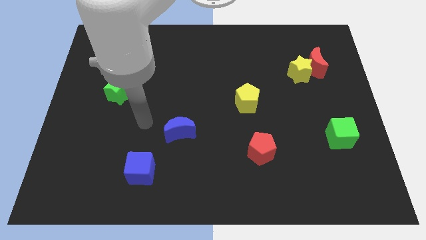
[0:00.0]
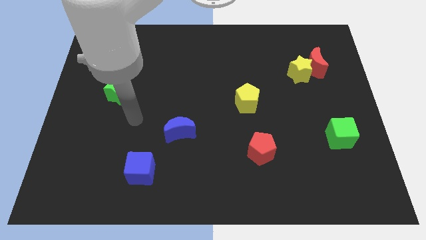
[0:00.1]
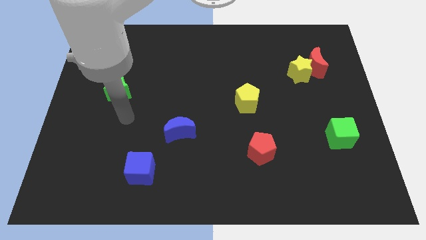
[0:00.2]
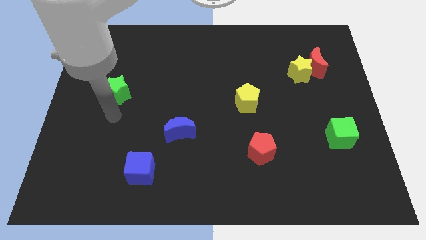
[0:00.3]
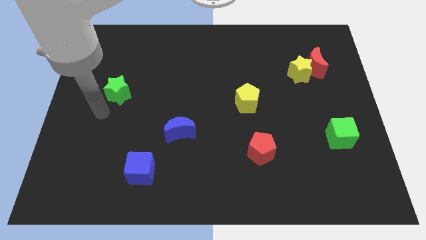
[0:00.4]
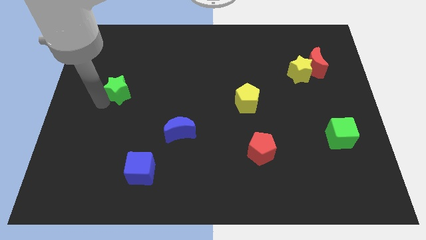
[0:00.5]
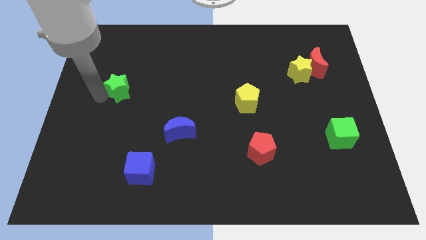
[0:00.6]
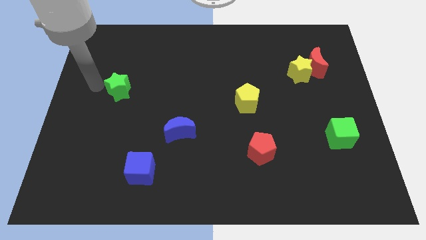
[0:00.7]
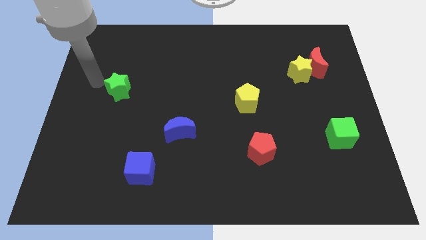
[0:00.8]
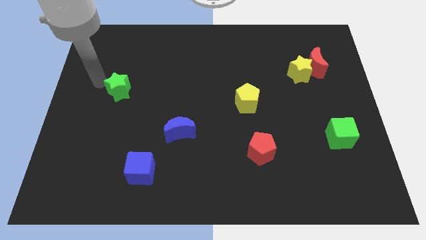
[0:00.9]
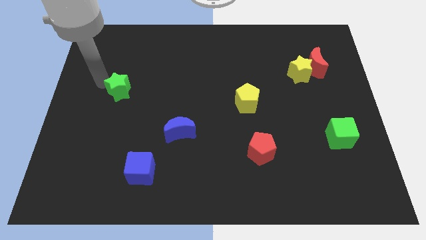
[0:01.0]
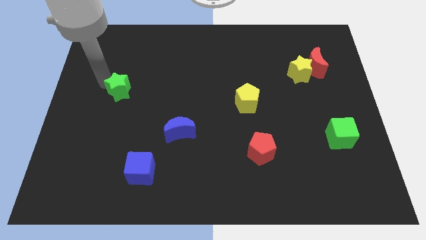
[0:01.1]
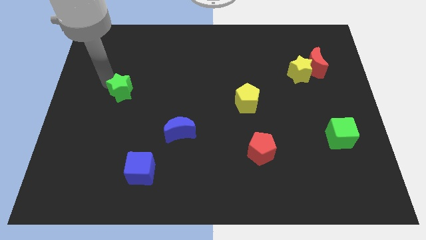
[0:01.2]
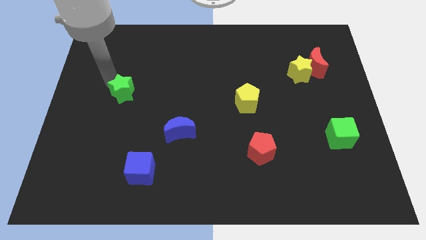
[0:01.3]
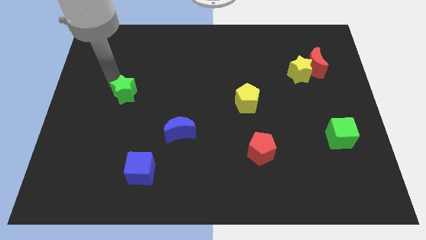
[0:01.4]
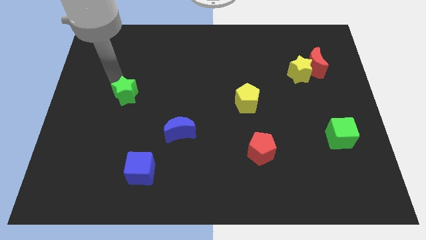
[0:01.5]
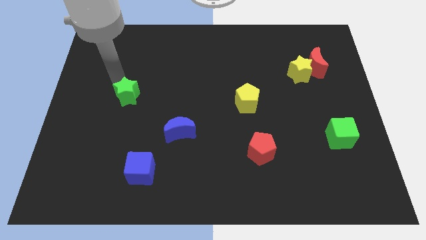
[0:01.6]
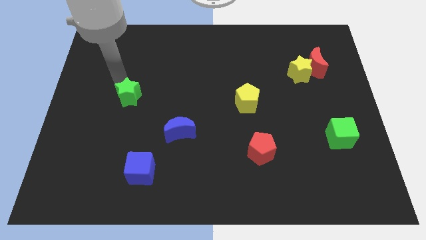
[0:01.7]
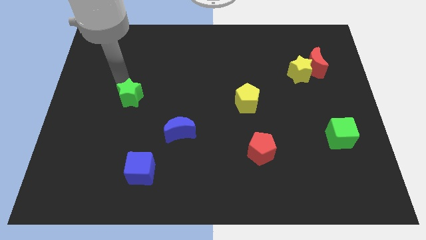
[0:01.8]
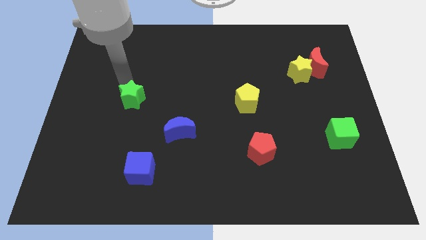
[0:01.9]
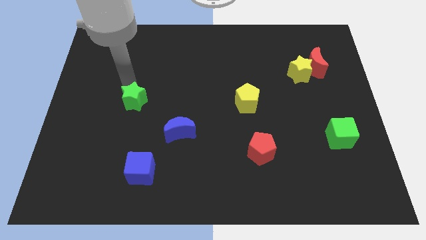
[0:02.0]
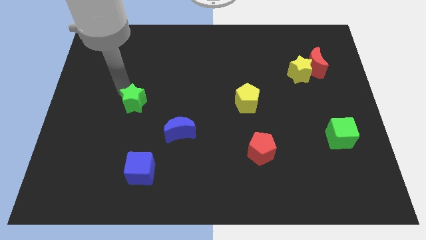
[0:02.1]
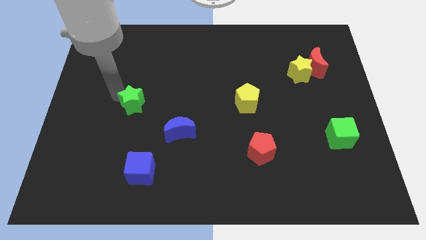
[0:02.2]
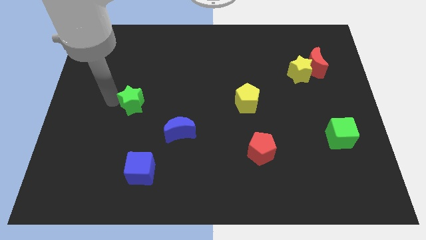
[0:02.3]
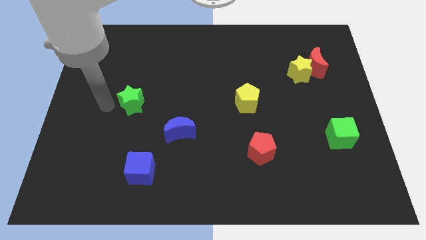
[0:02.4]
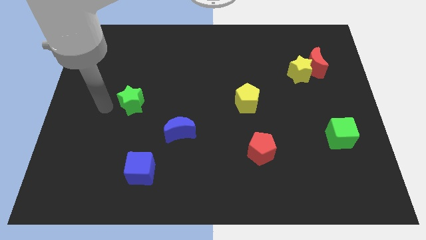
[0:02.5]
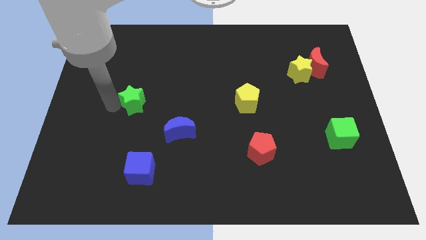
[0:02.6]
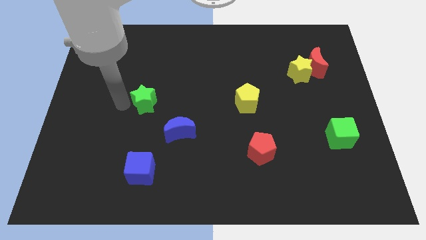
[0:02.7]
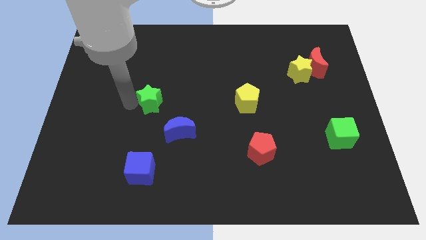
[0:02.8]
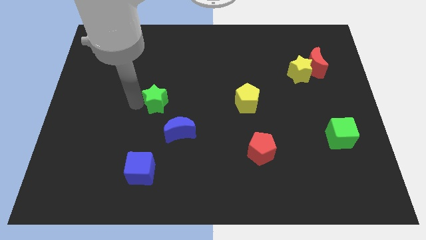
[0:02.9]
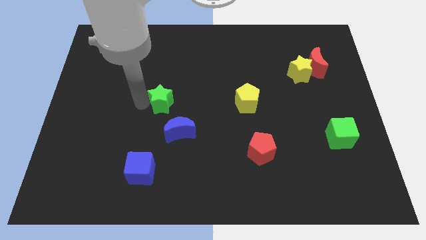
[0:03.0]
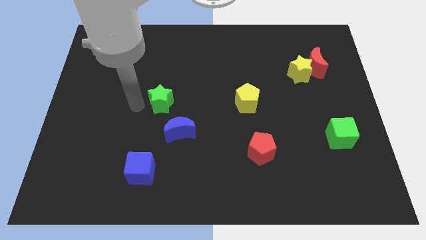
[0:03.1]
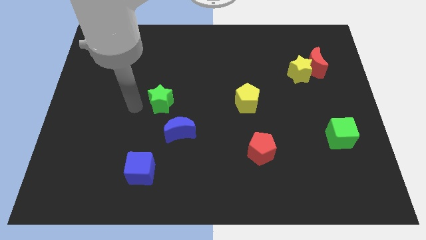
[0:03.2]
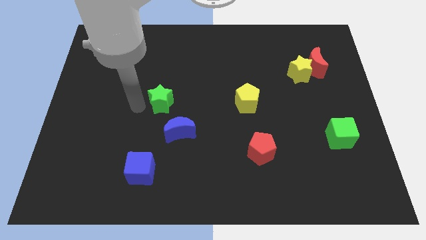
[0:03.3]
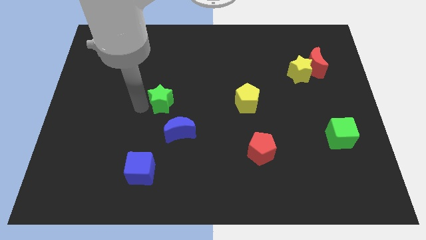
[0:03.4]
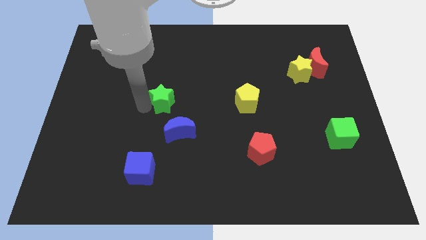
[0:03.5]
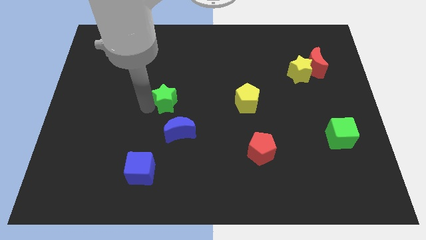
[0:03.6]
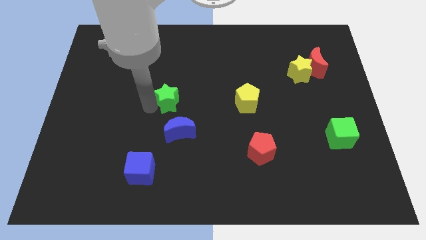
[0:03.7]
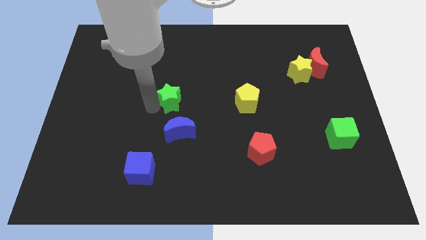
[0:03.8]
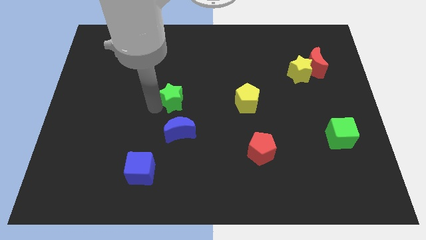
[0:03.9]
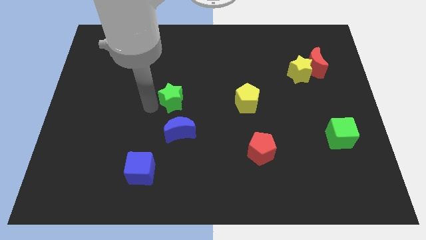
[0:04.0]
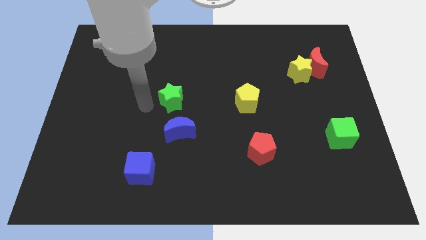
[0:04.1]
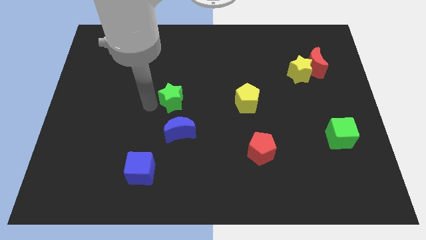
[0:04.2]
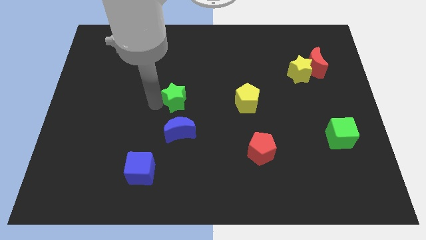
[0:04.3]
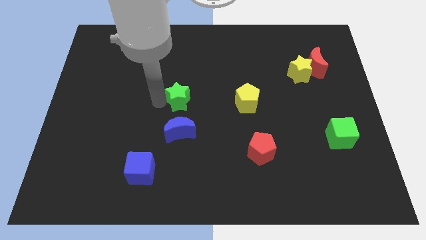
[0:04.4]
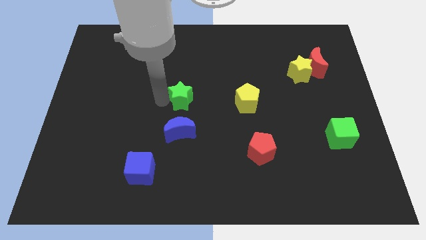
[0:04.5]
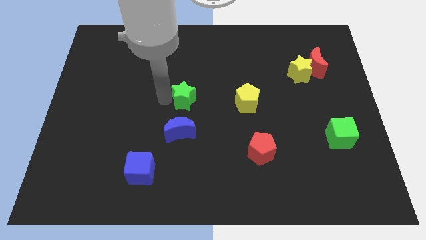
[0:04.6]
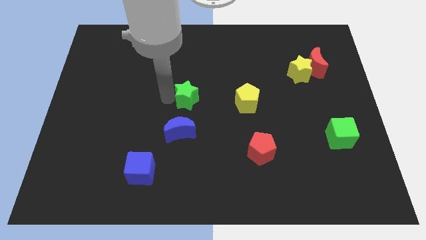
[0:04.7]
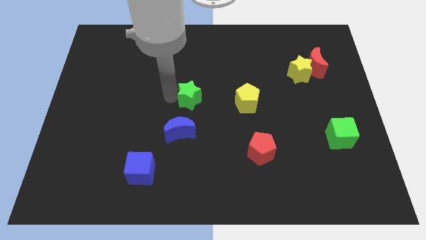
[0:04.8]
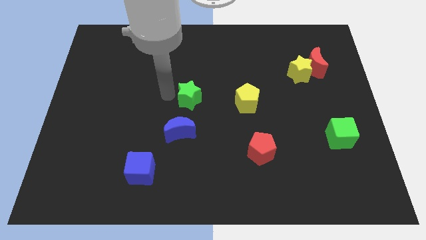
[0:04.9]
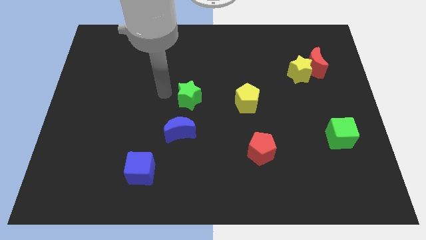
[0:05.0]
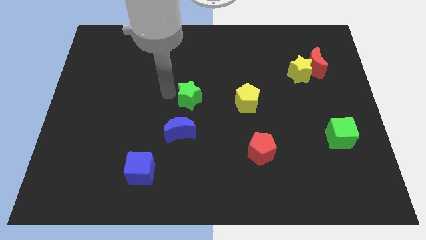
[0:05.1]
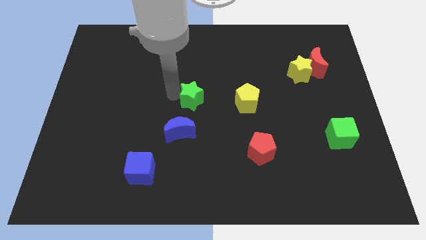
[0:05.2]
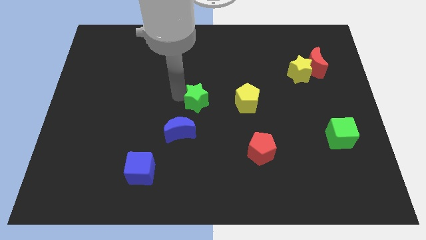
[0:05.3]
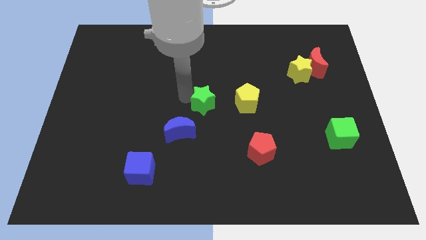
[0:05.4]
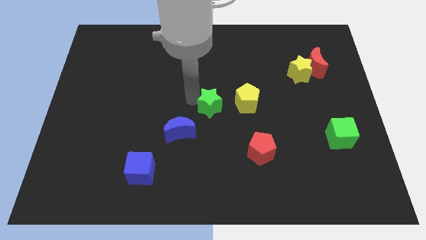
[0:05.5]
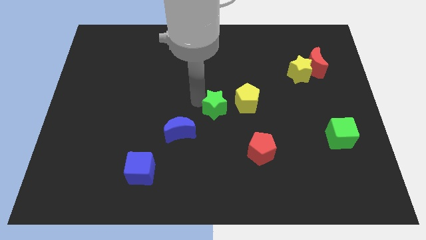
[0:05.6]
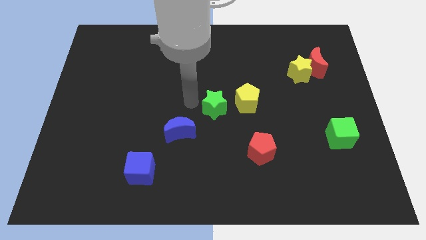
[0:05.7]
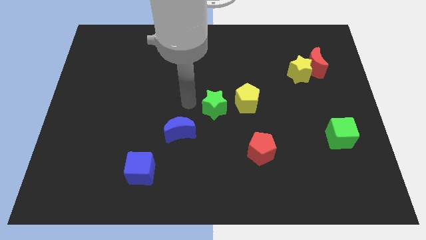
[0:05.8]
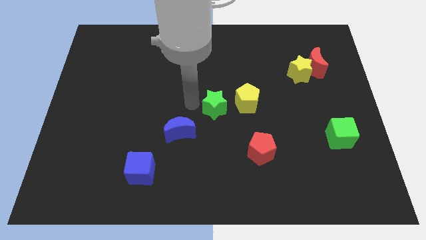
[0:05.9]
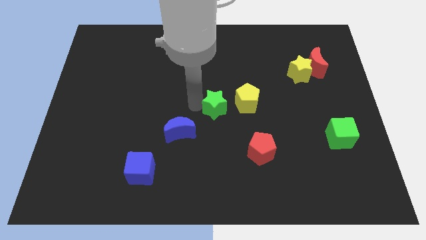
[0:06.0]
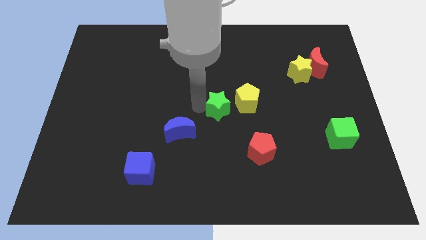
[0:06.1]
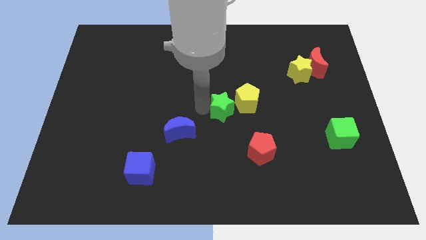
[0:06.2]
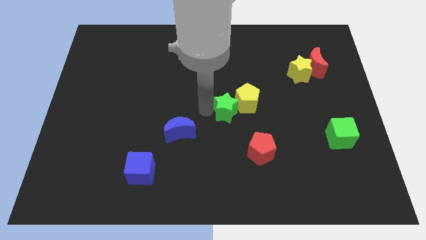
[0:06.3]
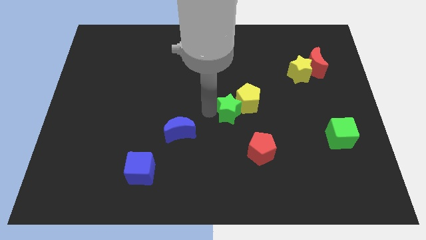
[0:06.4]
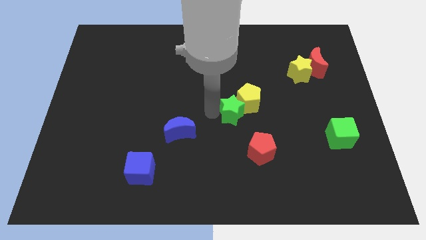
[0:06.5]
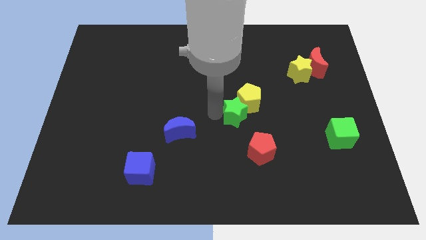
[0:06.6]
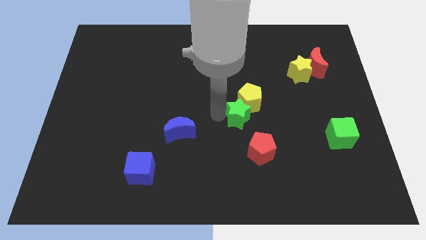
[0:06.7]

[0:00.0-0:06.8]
push the green star to the top of the red pentagon
